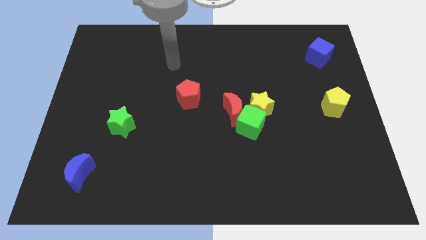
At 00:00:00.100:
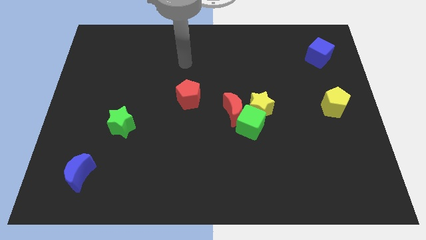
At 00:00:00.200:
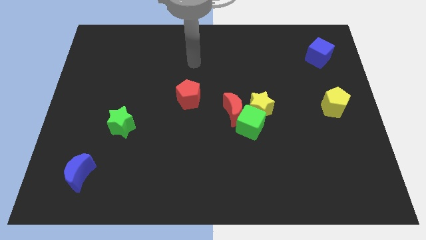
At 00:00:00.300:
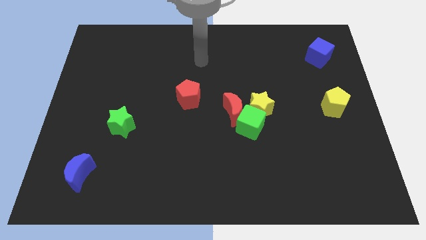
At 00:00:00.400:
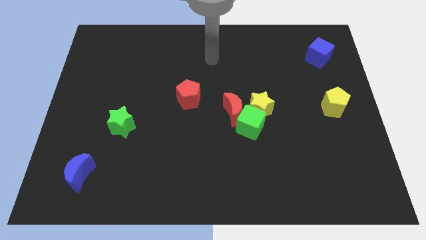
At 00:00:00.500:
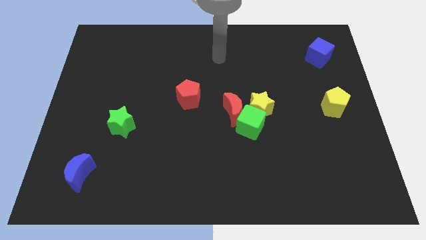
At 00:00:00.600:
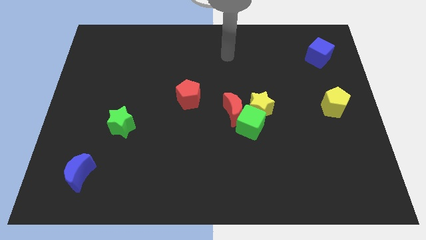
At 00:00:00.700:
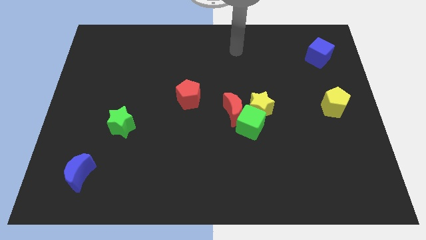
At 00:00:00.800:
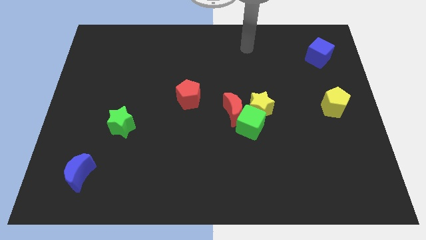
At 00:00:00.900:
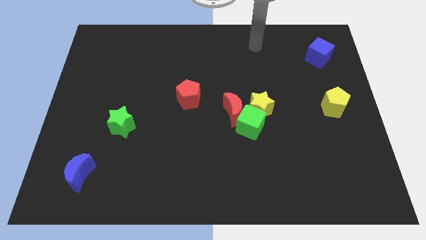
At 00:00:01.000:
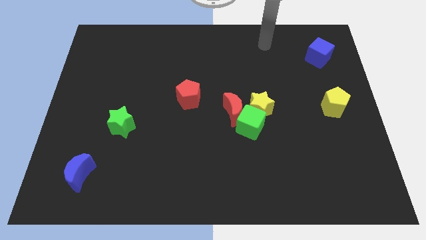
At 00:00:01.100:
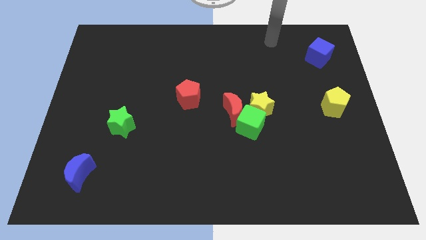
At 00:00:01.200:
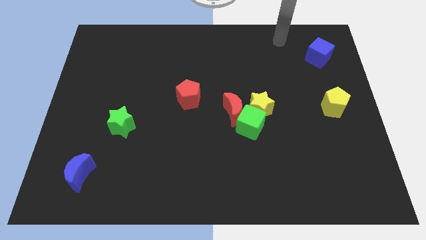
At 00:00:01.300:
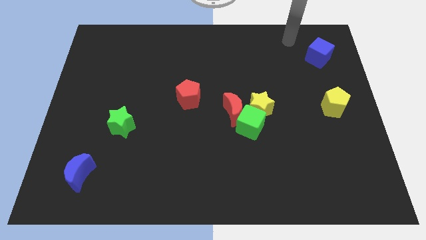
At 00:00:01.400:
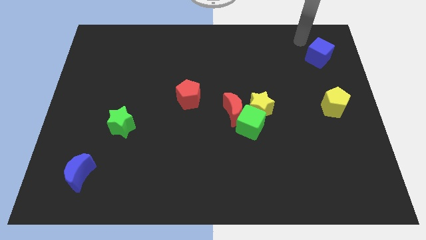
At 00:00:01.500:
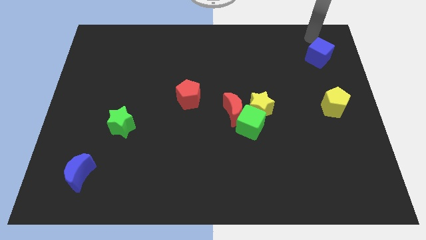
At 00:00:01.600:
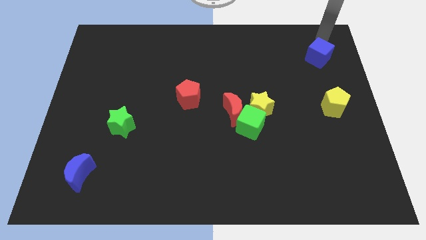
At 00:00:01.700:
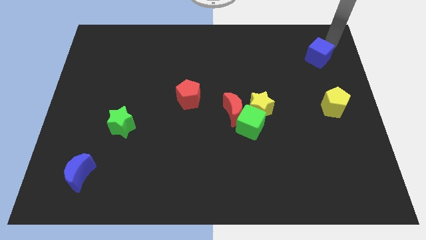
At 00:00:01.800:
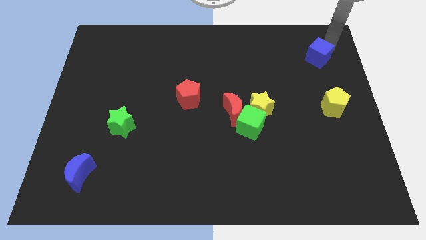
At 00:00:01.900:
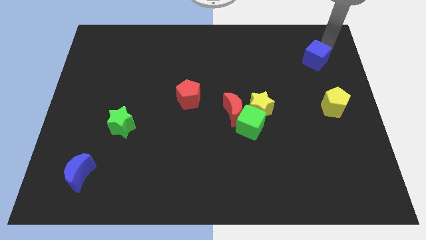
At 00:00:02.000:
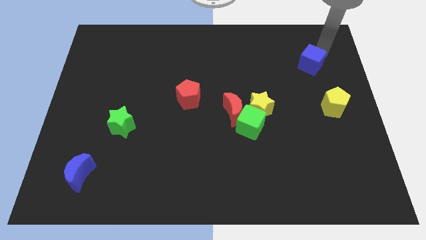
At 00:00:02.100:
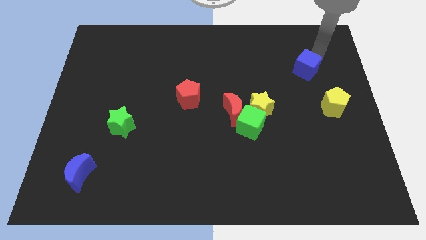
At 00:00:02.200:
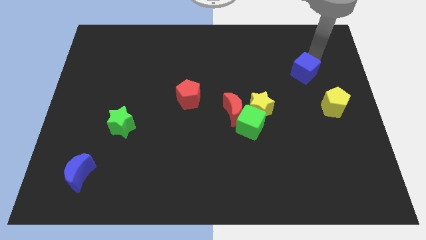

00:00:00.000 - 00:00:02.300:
push the blue cube diagonally downwards and left a little bit

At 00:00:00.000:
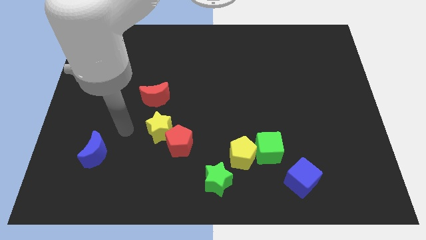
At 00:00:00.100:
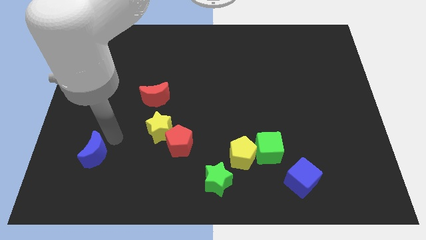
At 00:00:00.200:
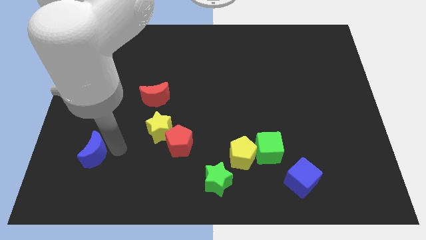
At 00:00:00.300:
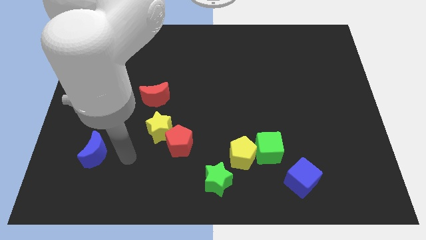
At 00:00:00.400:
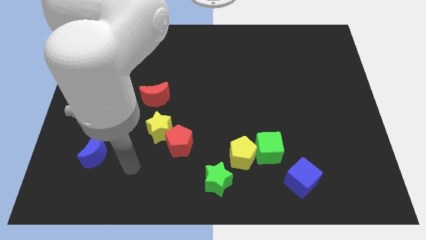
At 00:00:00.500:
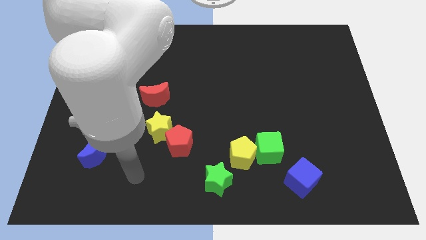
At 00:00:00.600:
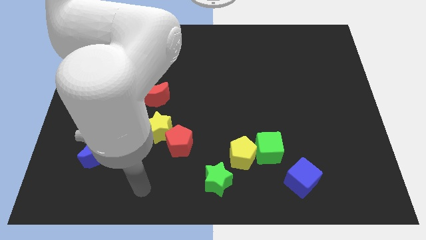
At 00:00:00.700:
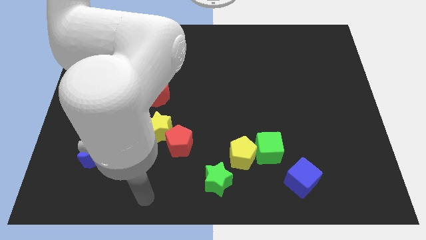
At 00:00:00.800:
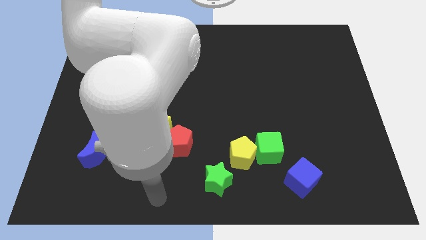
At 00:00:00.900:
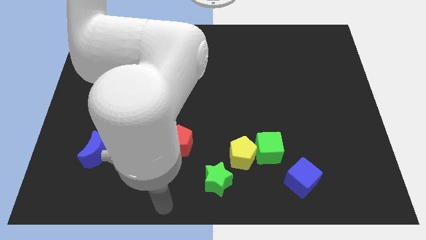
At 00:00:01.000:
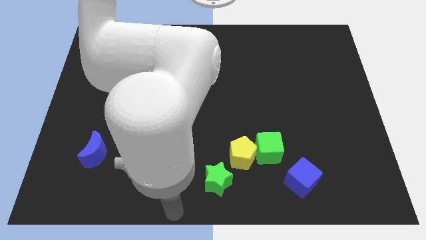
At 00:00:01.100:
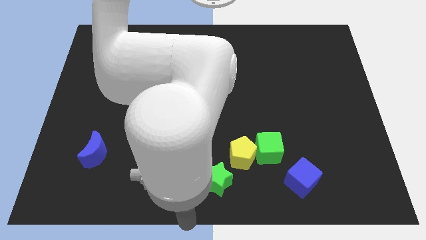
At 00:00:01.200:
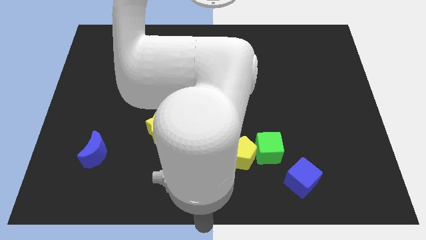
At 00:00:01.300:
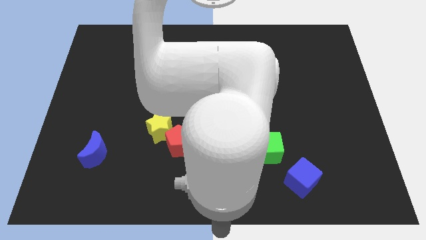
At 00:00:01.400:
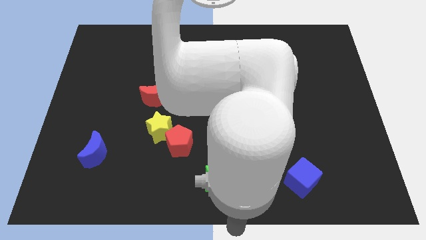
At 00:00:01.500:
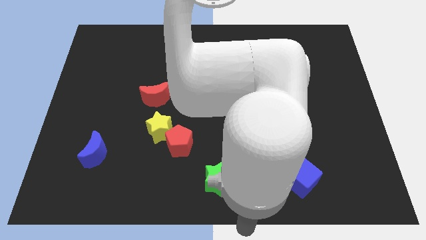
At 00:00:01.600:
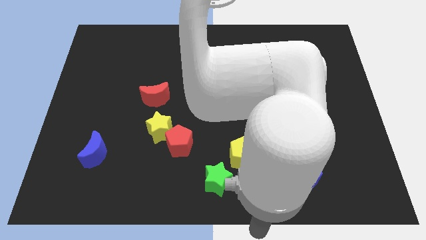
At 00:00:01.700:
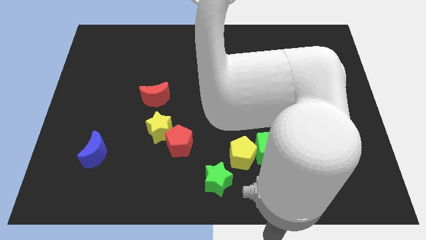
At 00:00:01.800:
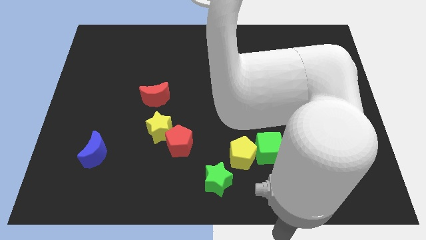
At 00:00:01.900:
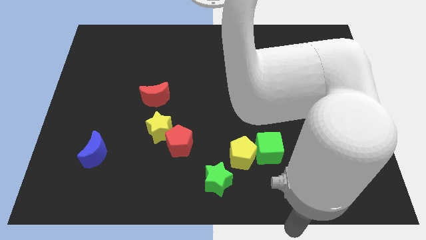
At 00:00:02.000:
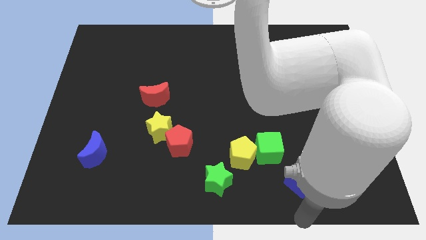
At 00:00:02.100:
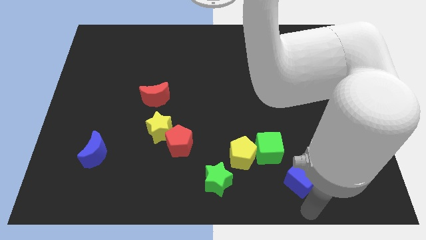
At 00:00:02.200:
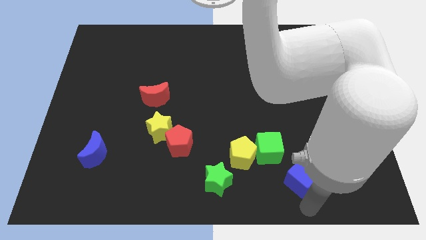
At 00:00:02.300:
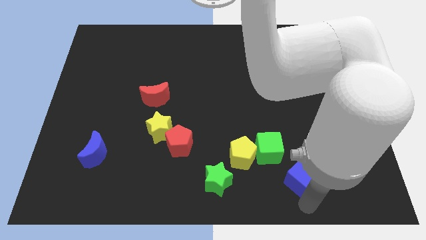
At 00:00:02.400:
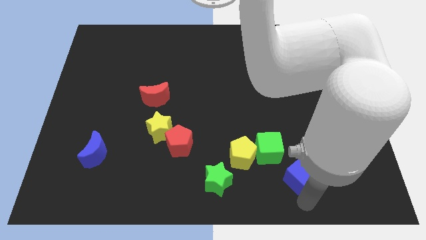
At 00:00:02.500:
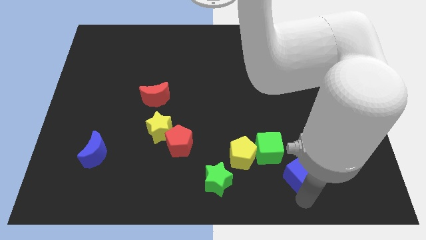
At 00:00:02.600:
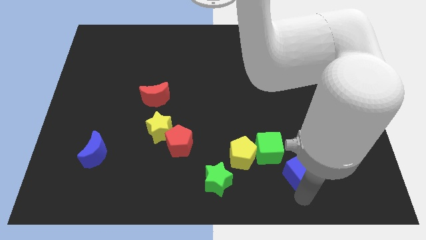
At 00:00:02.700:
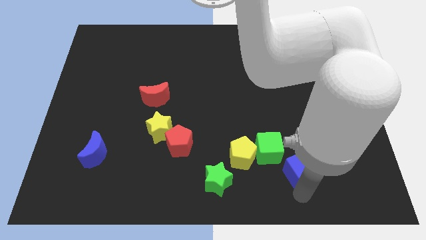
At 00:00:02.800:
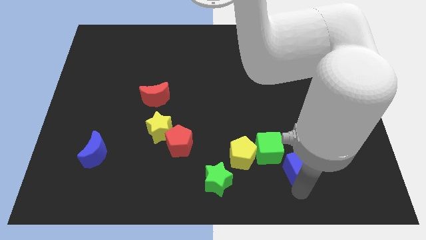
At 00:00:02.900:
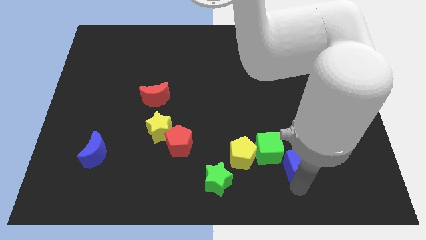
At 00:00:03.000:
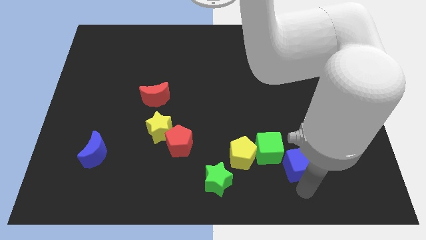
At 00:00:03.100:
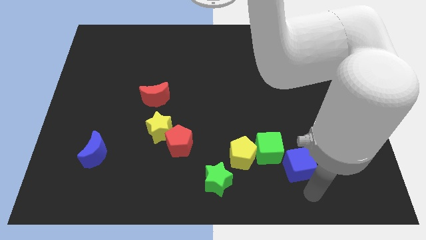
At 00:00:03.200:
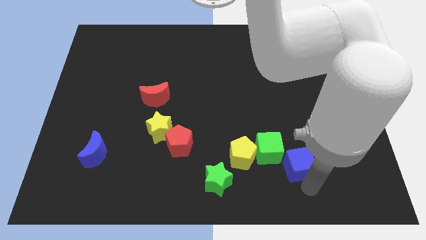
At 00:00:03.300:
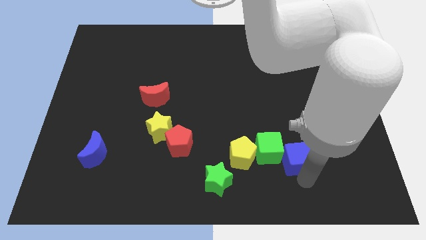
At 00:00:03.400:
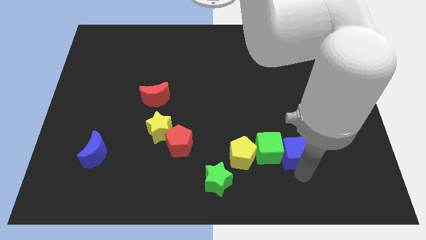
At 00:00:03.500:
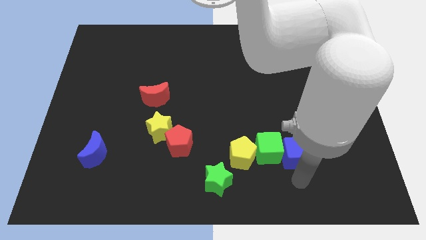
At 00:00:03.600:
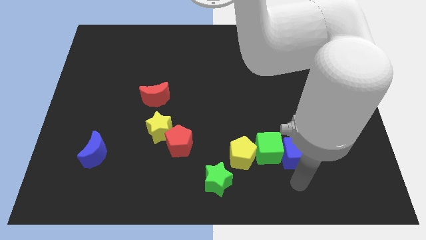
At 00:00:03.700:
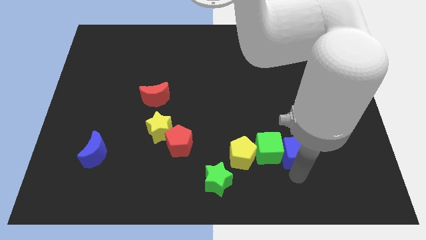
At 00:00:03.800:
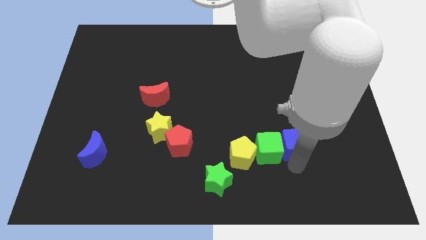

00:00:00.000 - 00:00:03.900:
push the blue cube slightly up

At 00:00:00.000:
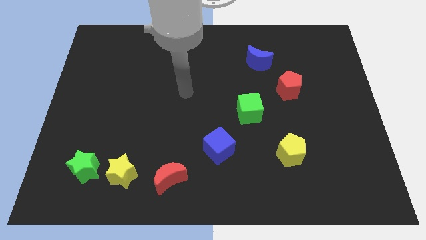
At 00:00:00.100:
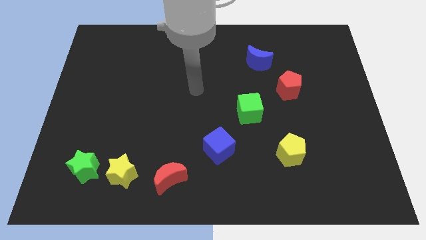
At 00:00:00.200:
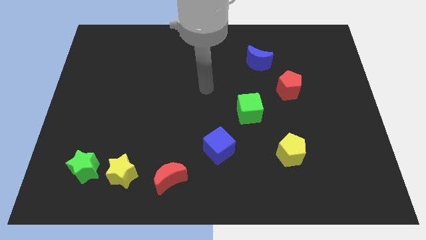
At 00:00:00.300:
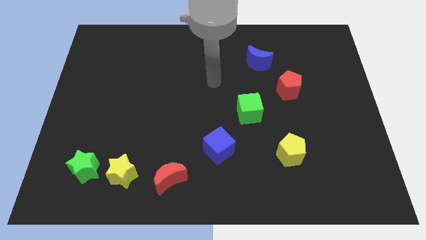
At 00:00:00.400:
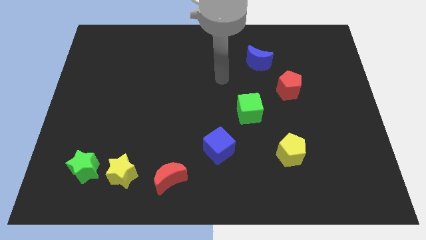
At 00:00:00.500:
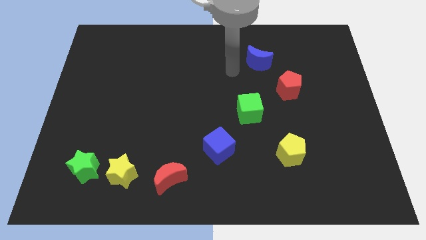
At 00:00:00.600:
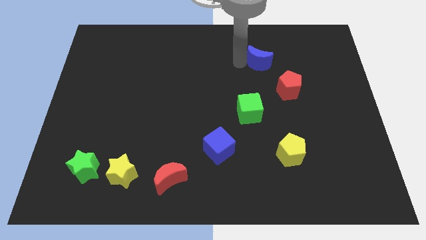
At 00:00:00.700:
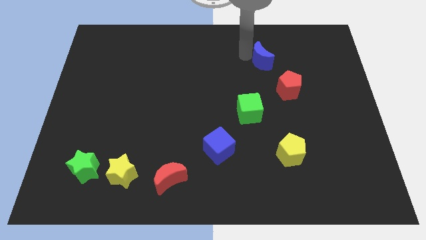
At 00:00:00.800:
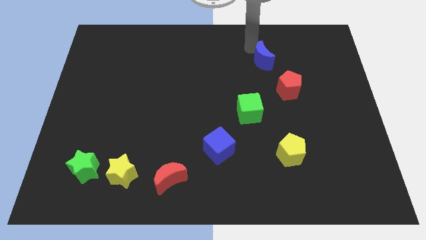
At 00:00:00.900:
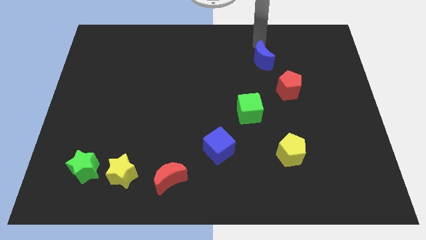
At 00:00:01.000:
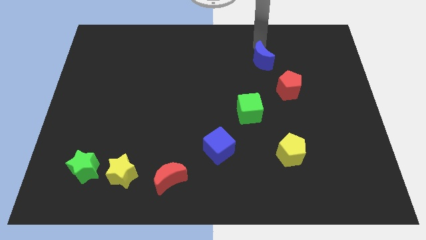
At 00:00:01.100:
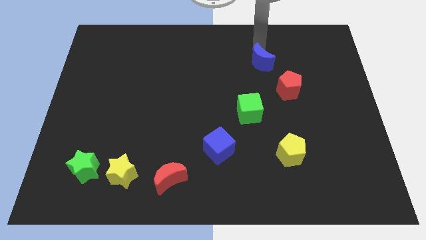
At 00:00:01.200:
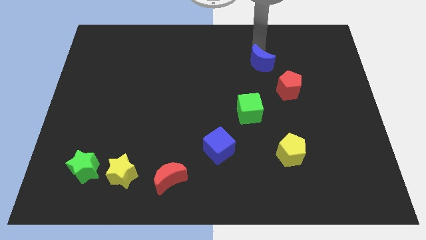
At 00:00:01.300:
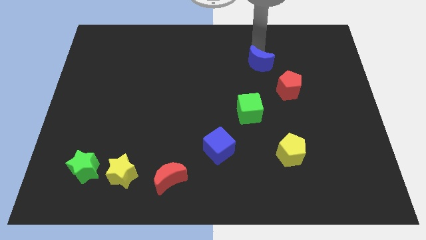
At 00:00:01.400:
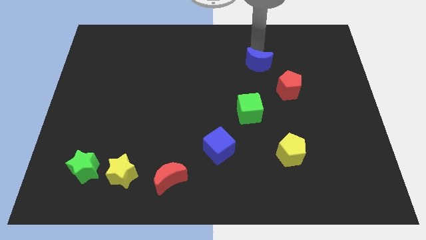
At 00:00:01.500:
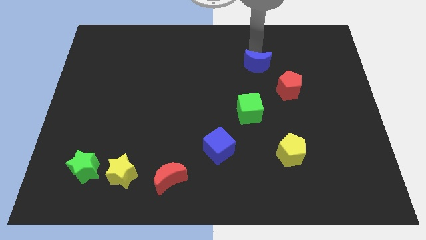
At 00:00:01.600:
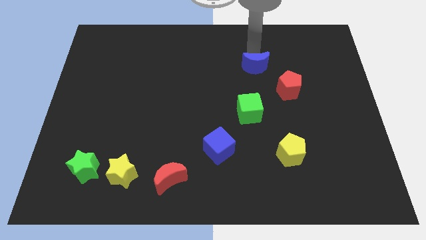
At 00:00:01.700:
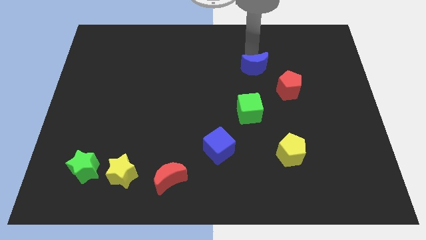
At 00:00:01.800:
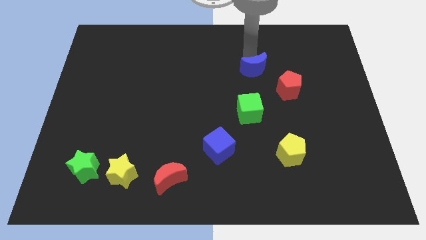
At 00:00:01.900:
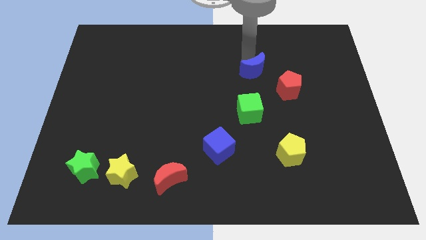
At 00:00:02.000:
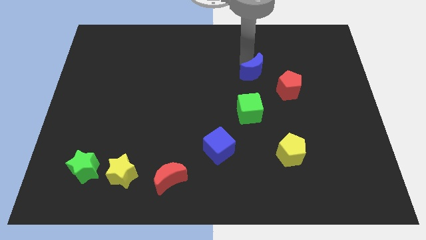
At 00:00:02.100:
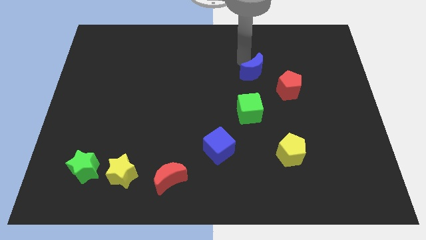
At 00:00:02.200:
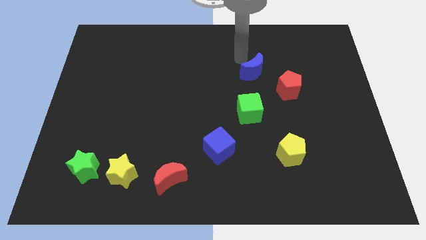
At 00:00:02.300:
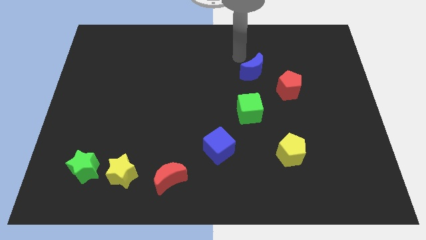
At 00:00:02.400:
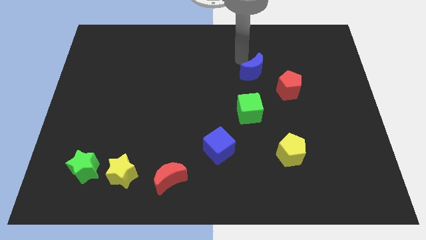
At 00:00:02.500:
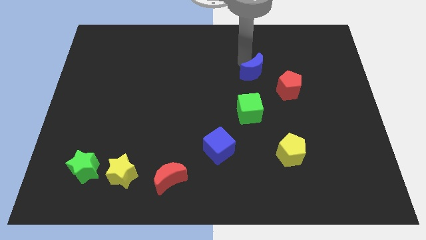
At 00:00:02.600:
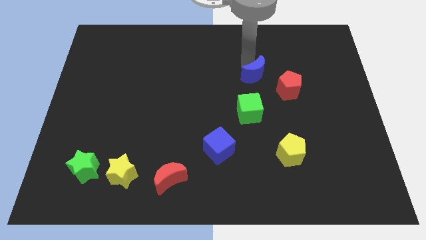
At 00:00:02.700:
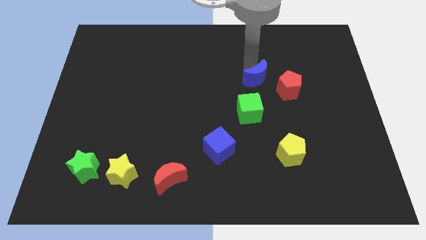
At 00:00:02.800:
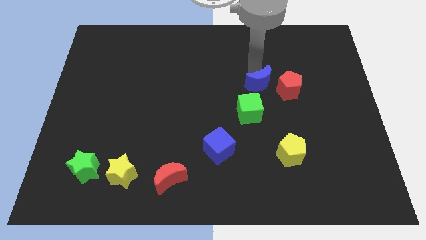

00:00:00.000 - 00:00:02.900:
slightly move the blue moon down
